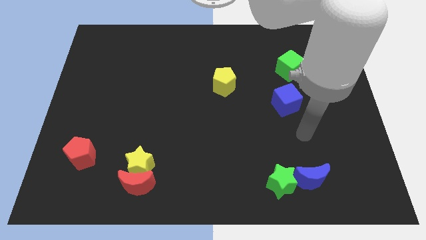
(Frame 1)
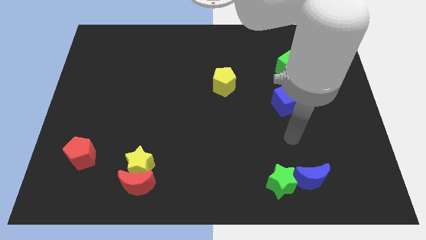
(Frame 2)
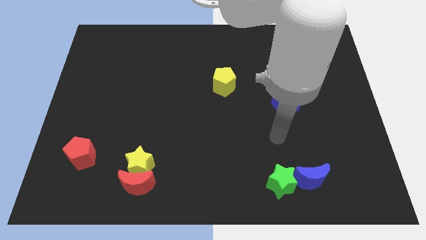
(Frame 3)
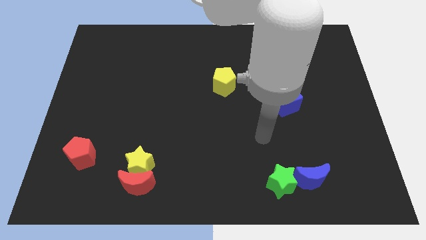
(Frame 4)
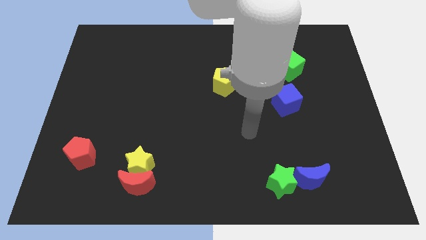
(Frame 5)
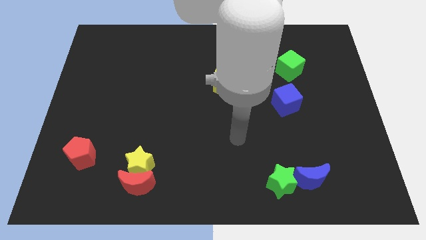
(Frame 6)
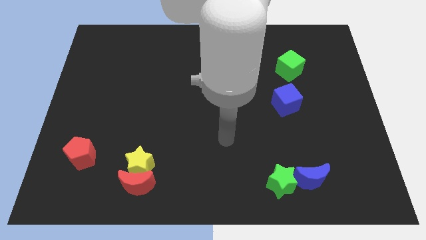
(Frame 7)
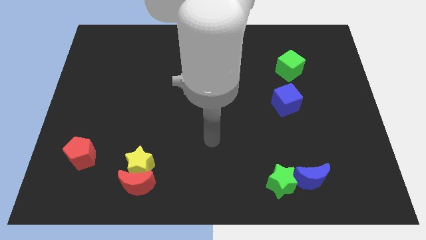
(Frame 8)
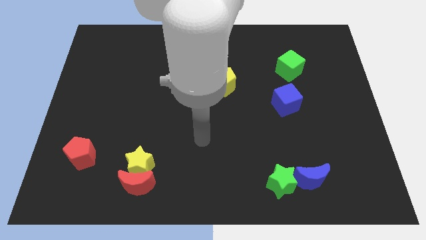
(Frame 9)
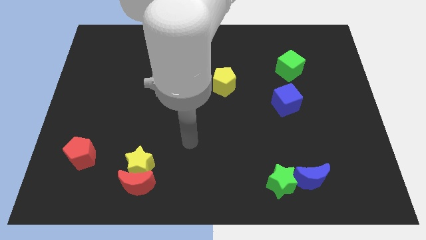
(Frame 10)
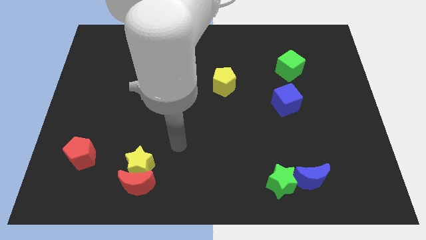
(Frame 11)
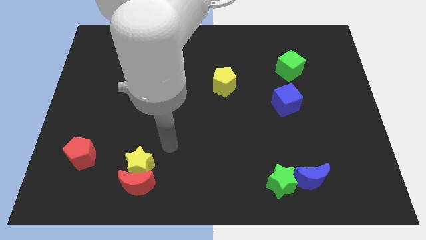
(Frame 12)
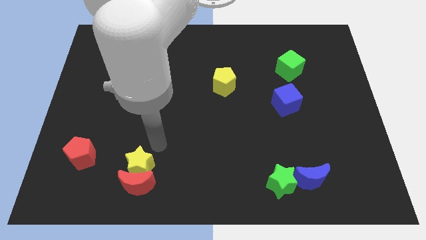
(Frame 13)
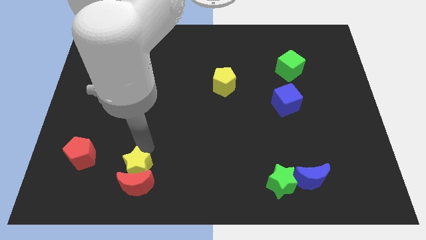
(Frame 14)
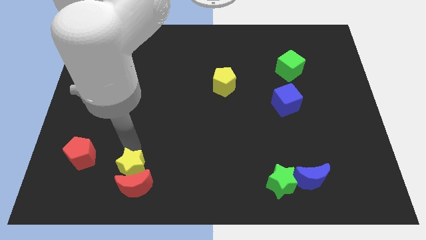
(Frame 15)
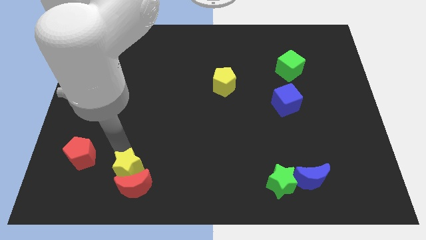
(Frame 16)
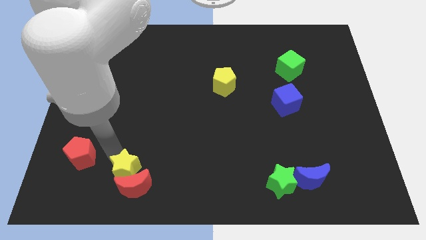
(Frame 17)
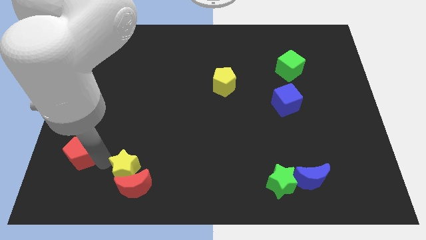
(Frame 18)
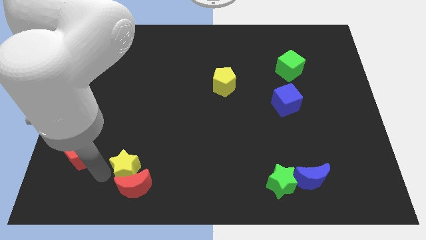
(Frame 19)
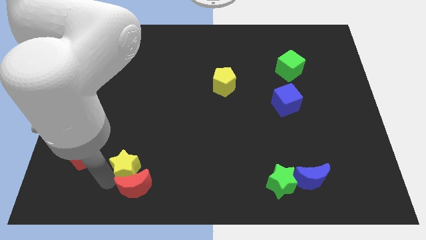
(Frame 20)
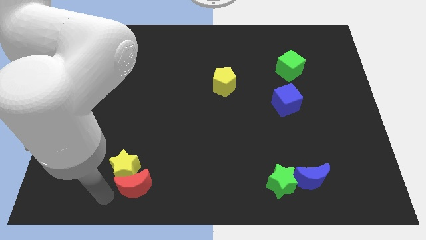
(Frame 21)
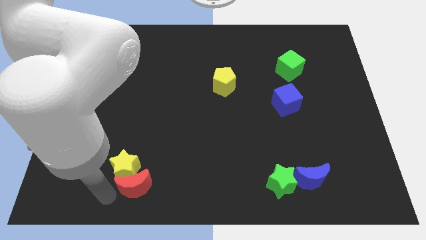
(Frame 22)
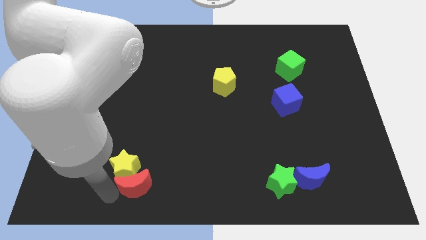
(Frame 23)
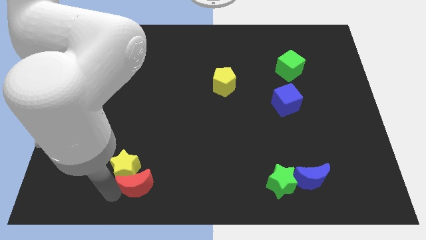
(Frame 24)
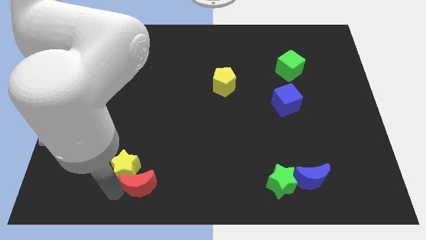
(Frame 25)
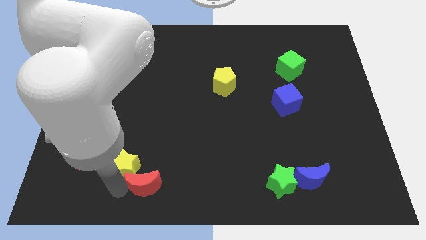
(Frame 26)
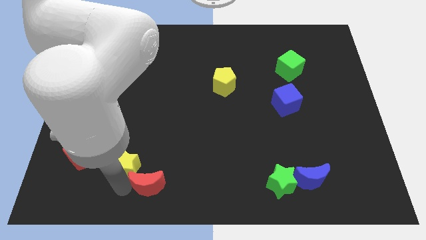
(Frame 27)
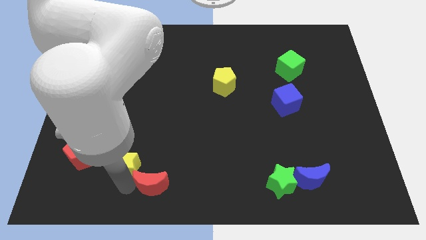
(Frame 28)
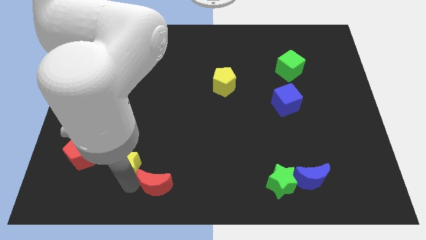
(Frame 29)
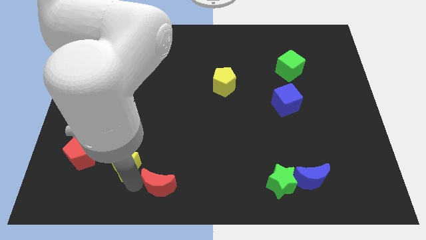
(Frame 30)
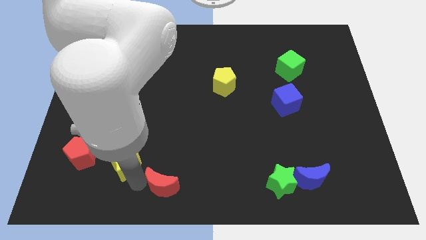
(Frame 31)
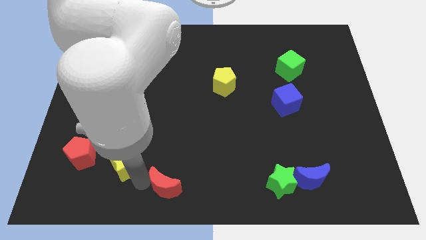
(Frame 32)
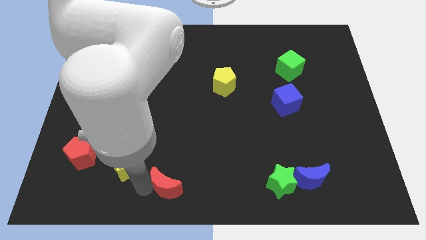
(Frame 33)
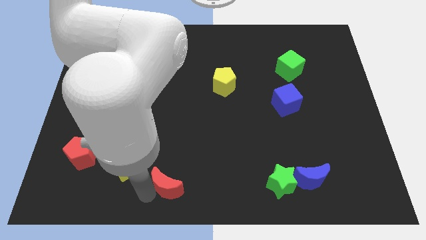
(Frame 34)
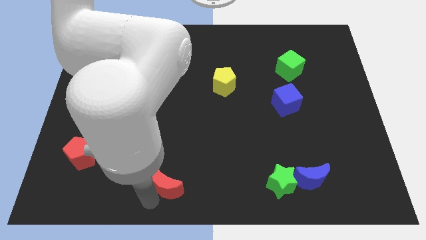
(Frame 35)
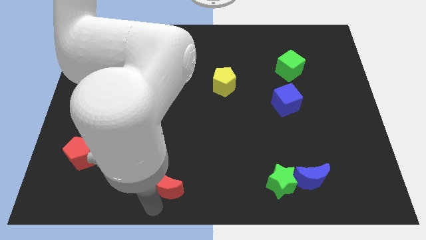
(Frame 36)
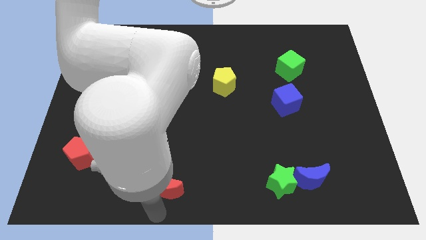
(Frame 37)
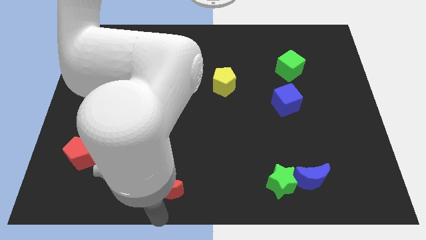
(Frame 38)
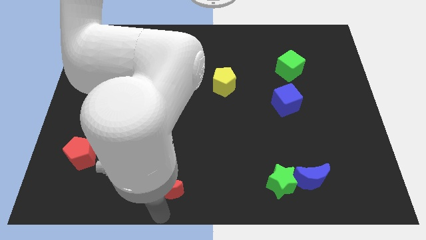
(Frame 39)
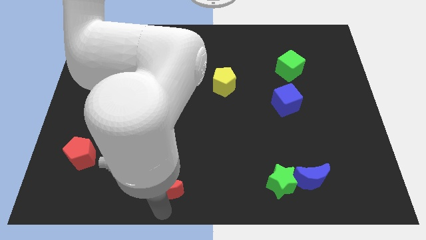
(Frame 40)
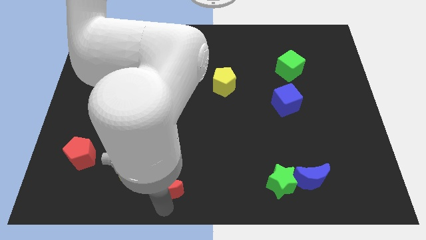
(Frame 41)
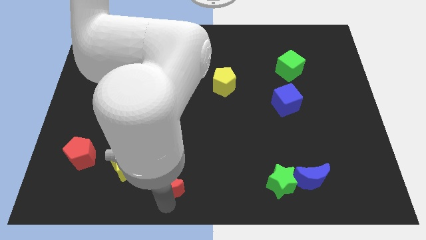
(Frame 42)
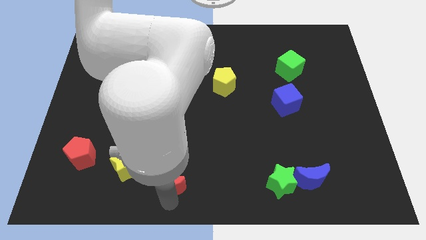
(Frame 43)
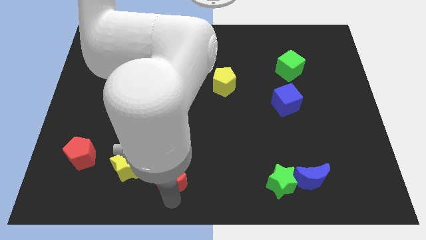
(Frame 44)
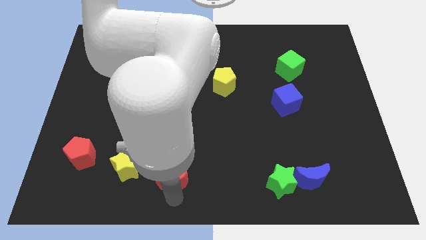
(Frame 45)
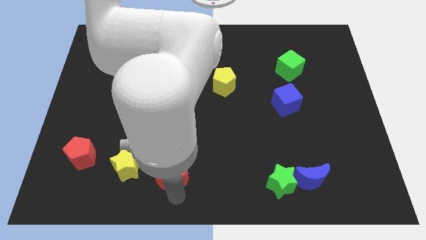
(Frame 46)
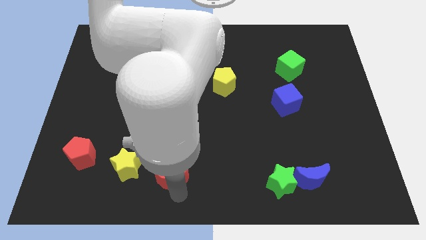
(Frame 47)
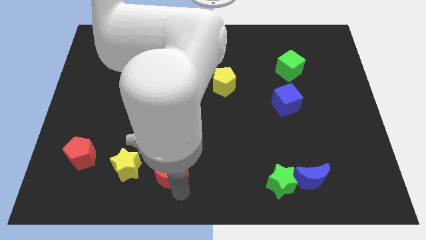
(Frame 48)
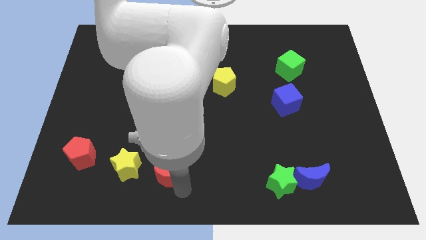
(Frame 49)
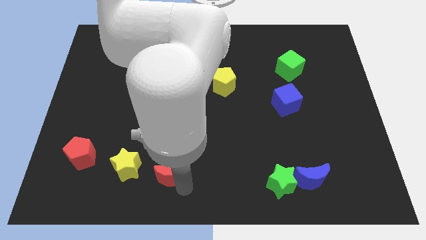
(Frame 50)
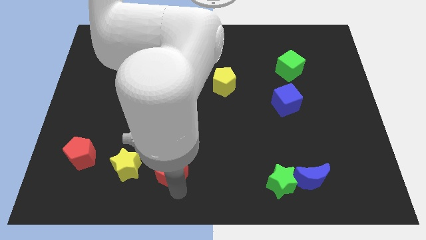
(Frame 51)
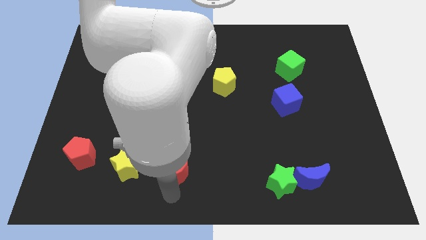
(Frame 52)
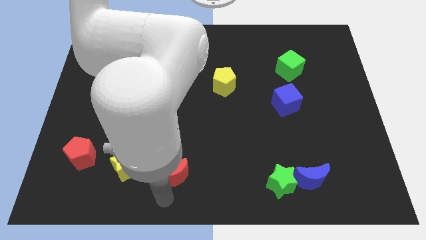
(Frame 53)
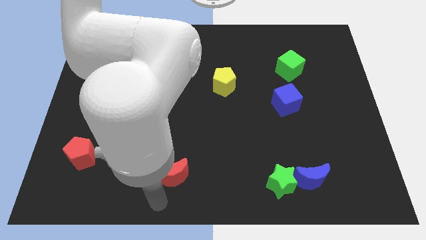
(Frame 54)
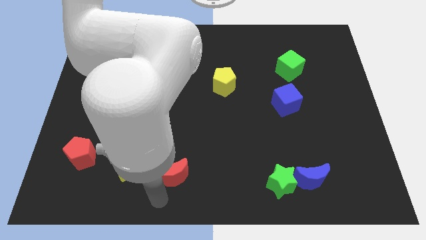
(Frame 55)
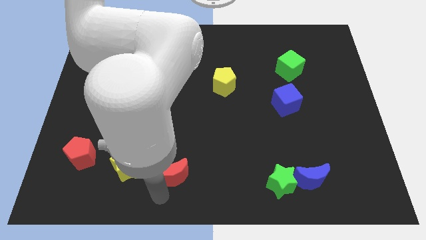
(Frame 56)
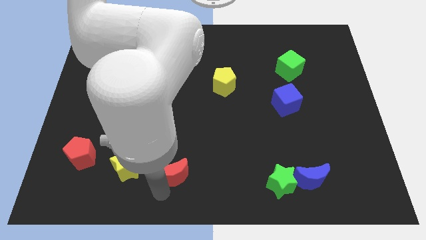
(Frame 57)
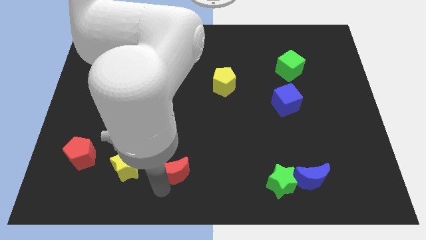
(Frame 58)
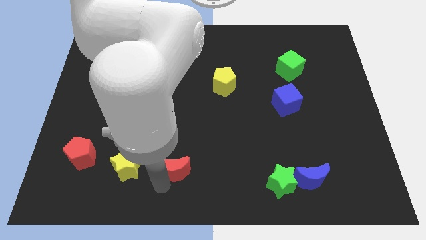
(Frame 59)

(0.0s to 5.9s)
slightly push the red moon diagonally upwards and right

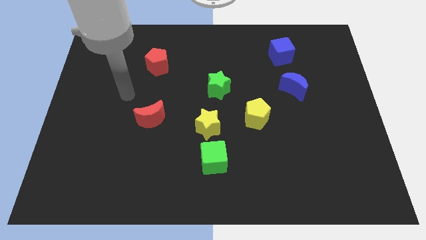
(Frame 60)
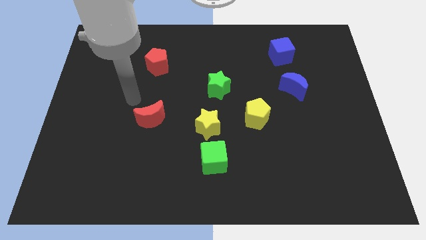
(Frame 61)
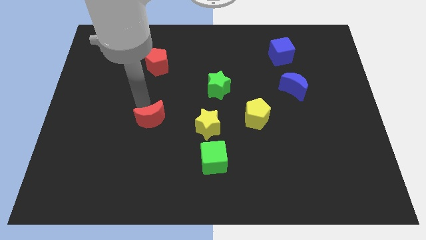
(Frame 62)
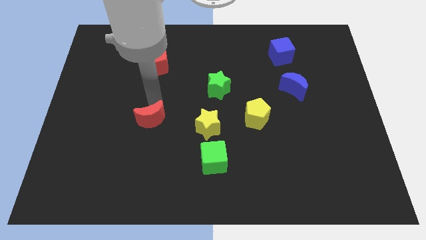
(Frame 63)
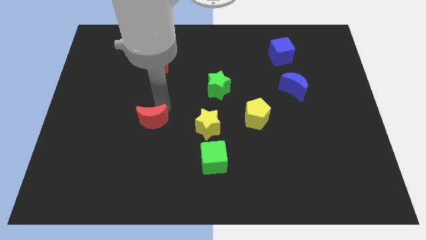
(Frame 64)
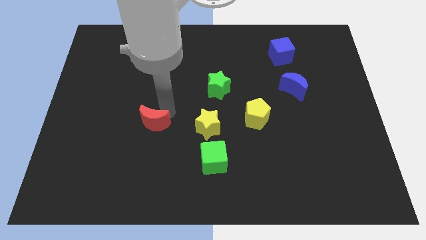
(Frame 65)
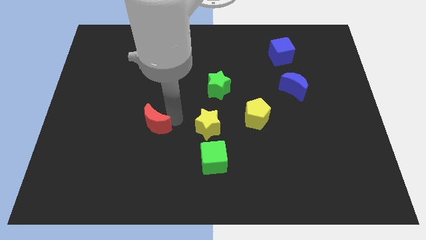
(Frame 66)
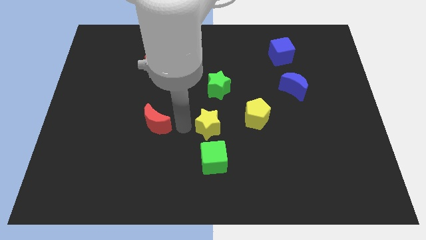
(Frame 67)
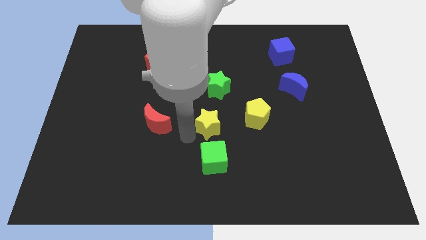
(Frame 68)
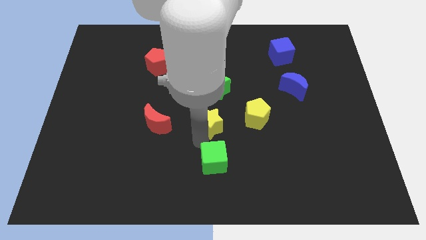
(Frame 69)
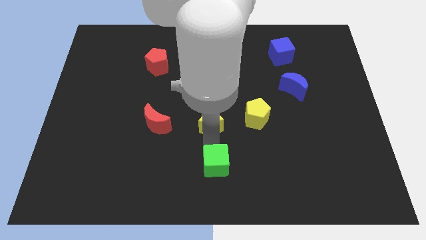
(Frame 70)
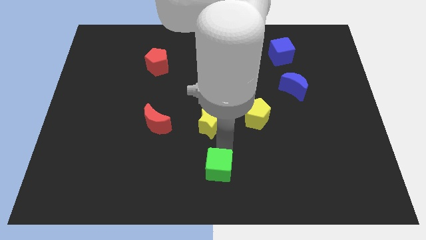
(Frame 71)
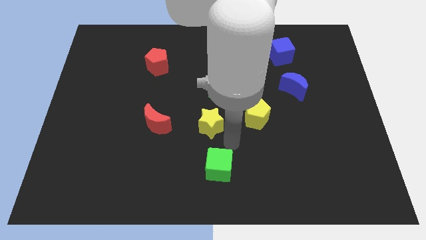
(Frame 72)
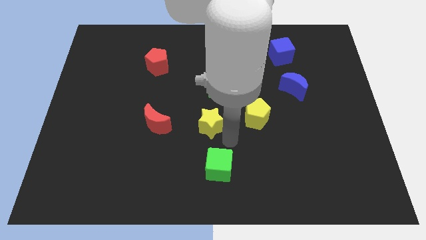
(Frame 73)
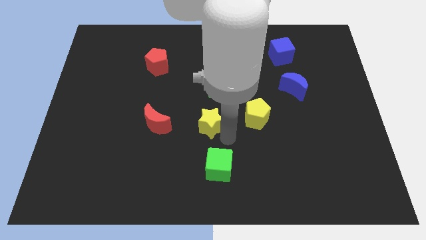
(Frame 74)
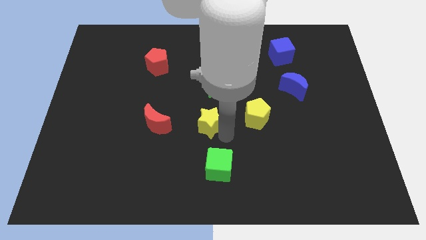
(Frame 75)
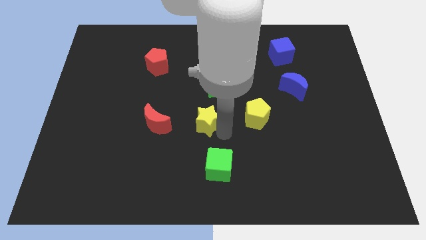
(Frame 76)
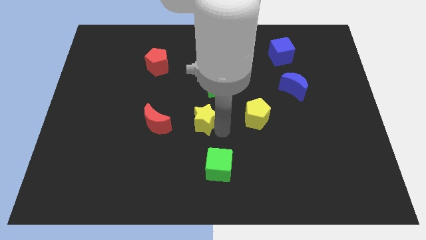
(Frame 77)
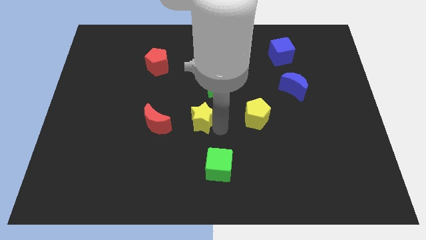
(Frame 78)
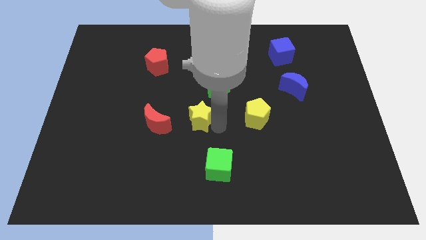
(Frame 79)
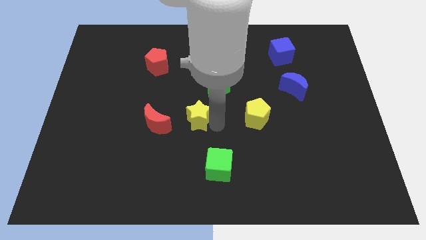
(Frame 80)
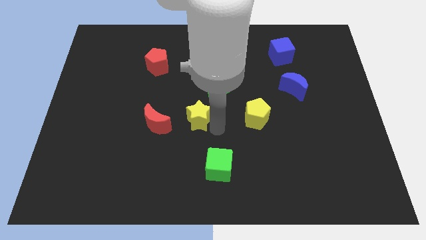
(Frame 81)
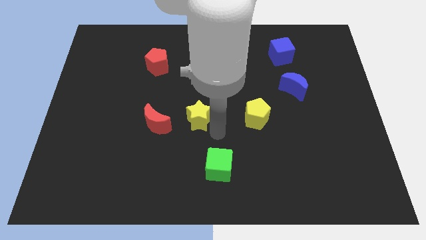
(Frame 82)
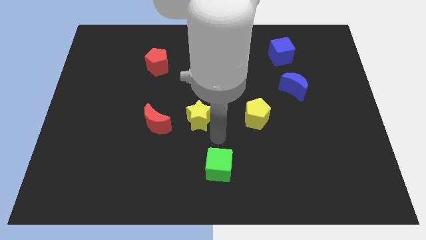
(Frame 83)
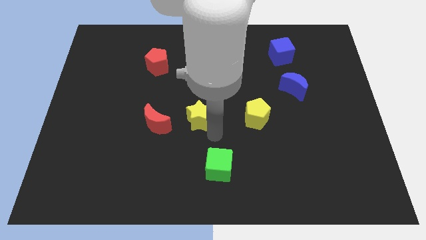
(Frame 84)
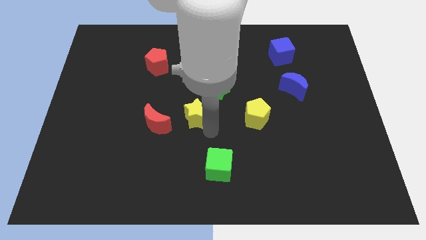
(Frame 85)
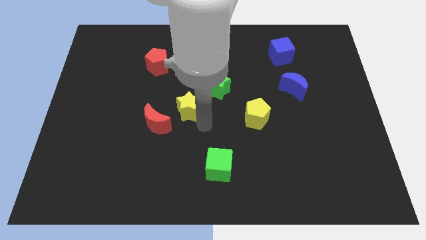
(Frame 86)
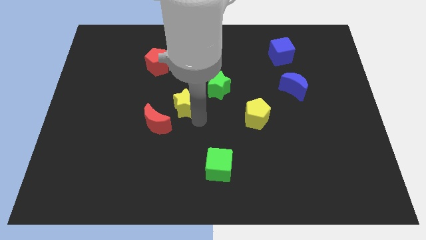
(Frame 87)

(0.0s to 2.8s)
move the yellow star upwards and left a little bit
